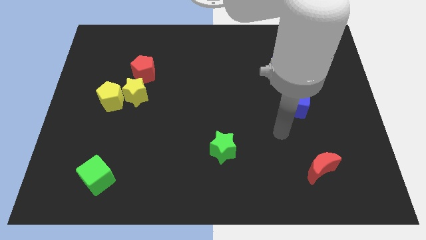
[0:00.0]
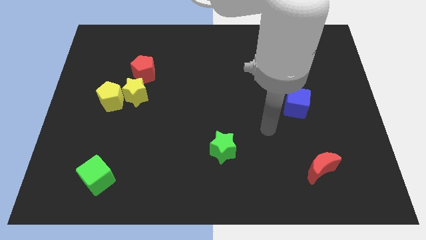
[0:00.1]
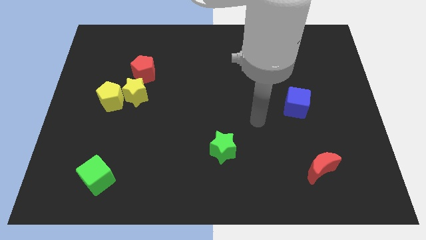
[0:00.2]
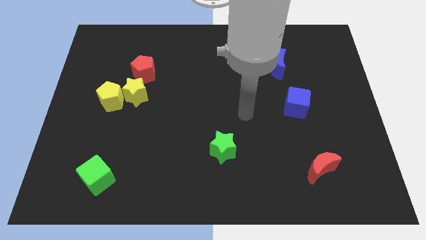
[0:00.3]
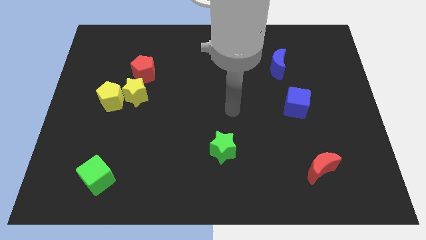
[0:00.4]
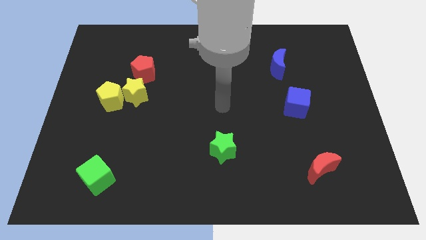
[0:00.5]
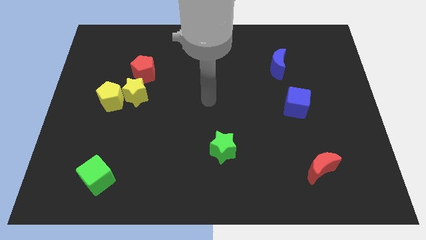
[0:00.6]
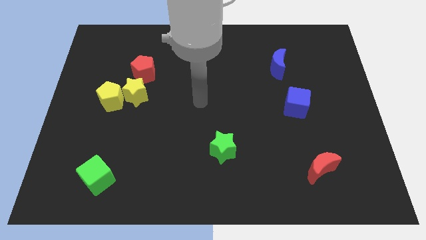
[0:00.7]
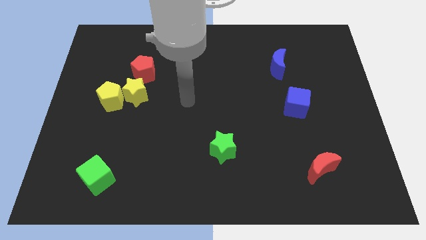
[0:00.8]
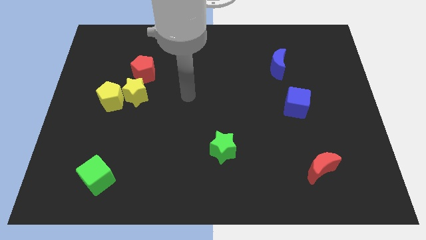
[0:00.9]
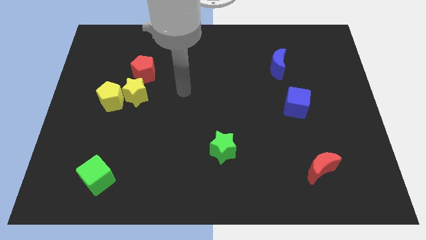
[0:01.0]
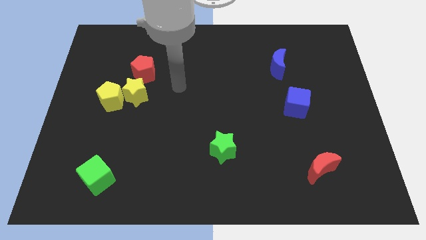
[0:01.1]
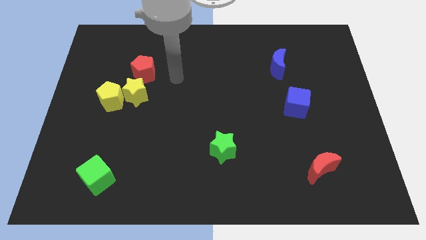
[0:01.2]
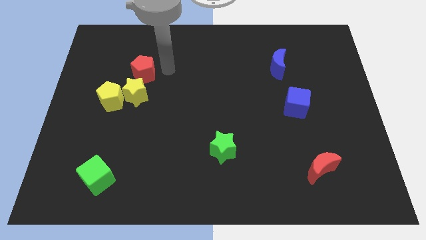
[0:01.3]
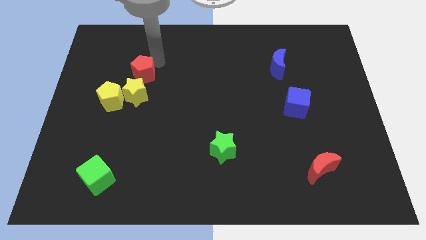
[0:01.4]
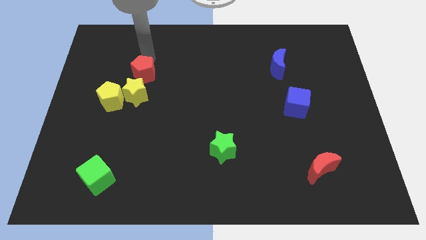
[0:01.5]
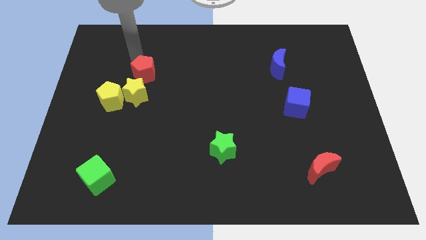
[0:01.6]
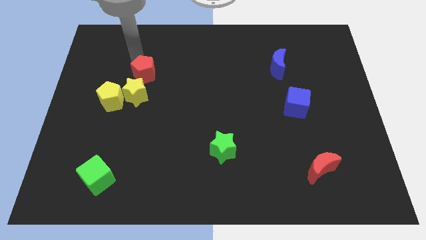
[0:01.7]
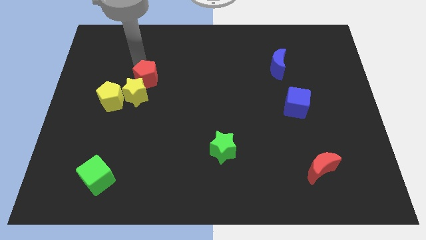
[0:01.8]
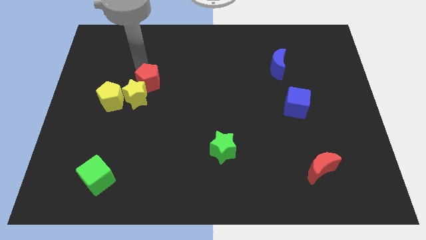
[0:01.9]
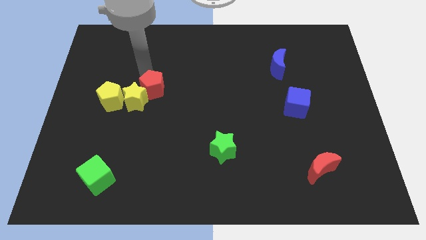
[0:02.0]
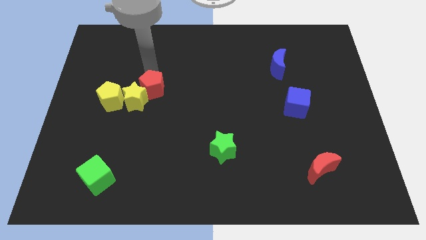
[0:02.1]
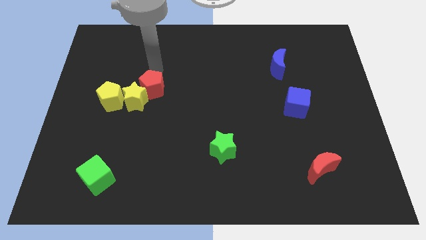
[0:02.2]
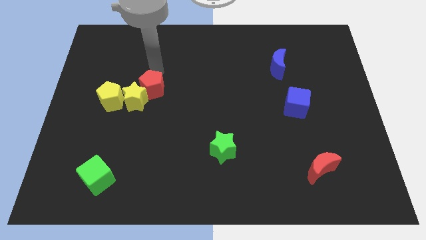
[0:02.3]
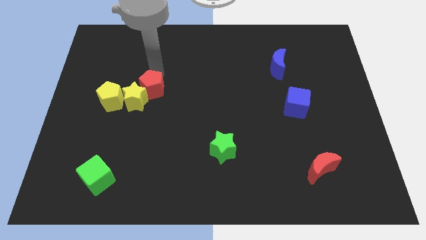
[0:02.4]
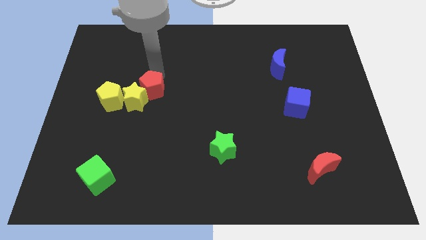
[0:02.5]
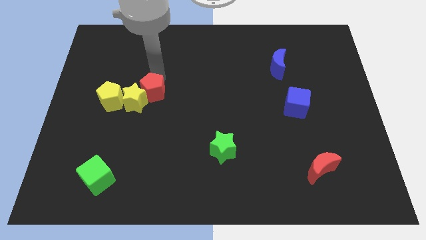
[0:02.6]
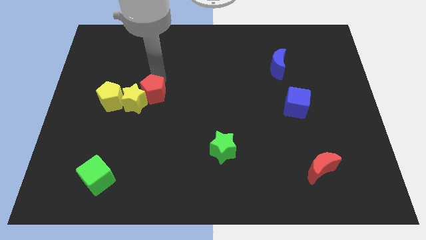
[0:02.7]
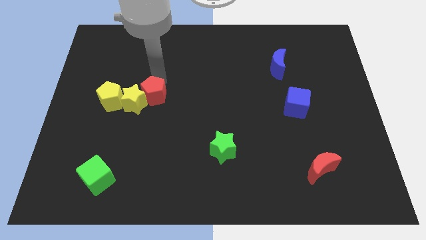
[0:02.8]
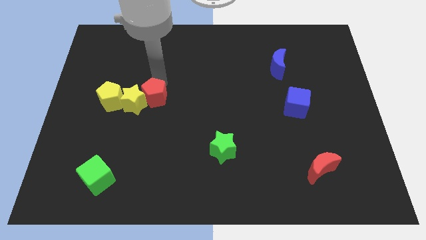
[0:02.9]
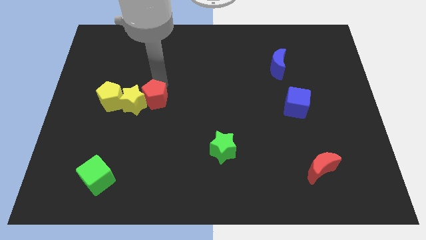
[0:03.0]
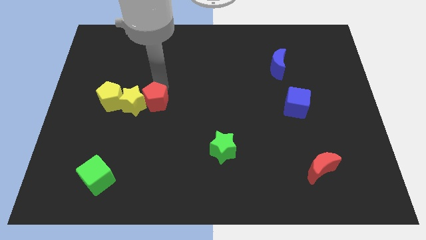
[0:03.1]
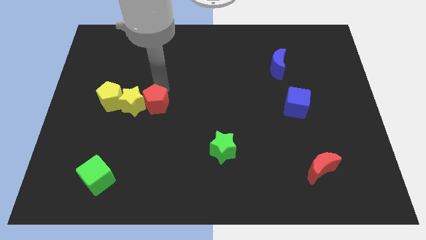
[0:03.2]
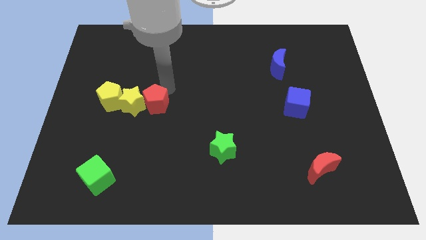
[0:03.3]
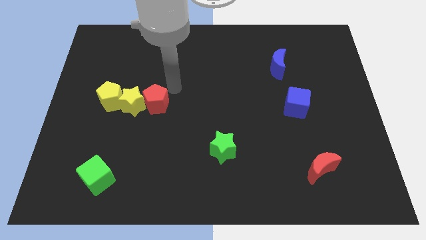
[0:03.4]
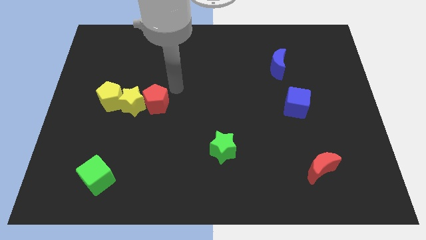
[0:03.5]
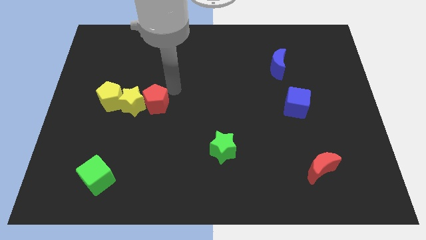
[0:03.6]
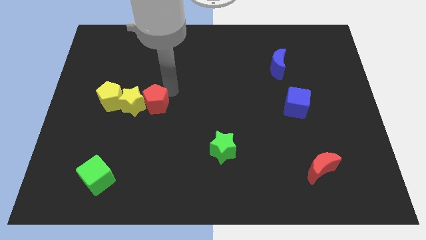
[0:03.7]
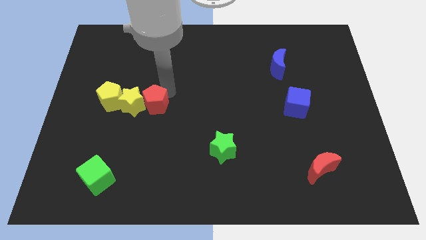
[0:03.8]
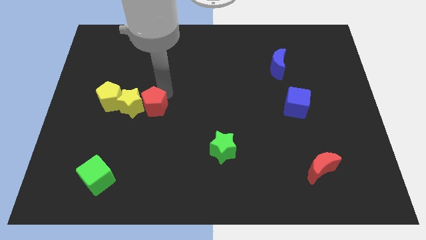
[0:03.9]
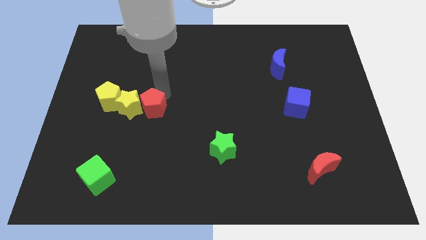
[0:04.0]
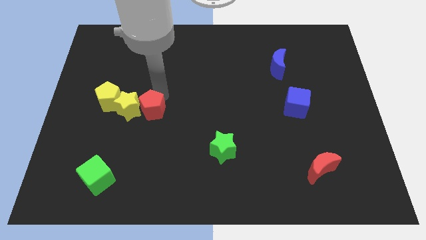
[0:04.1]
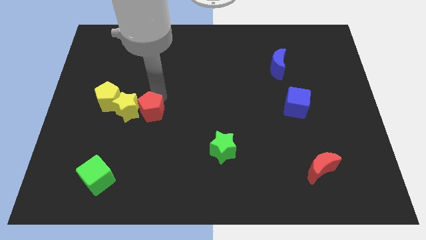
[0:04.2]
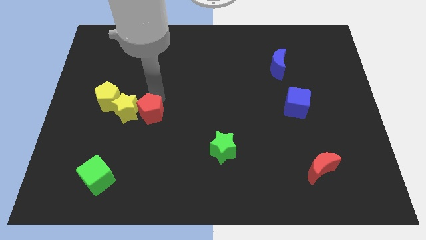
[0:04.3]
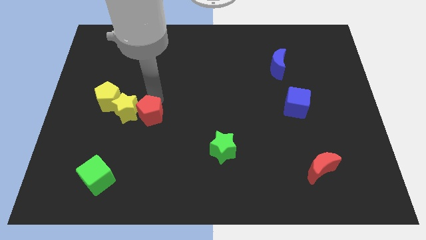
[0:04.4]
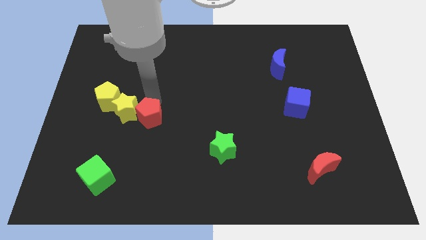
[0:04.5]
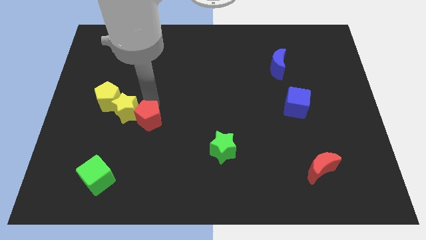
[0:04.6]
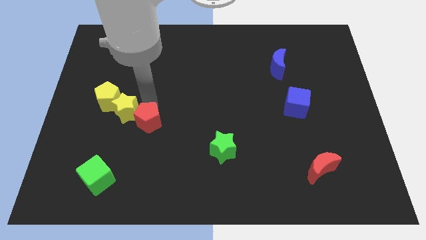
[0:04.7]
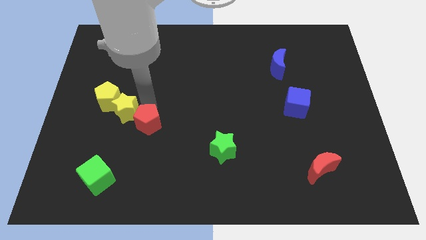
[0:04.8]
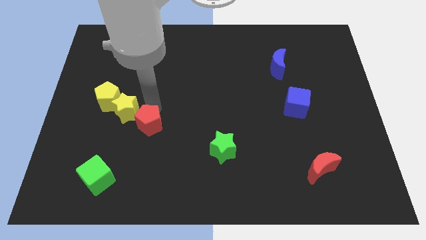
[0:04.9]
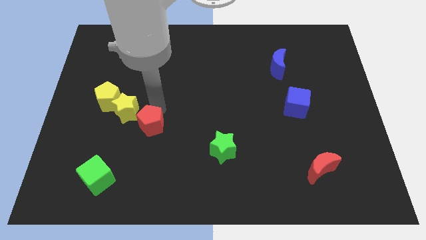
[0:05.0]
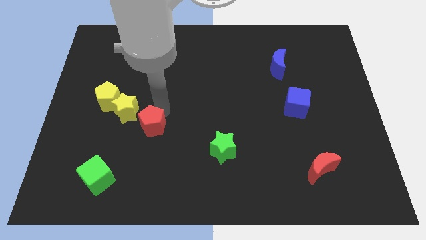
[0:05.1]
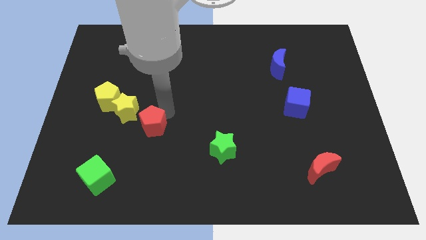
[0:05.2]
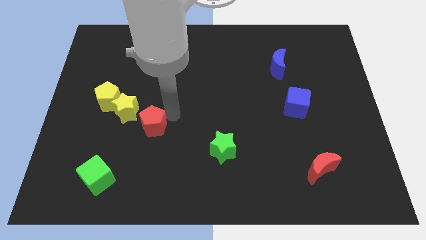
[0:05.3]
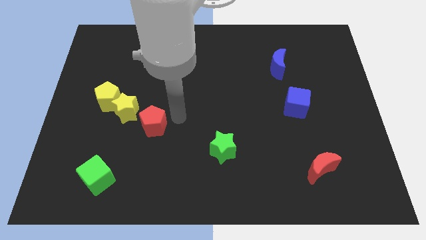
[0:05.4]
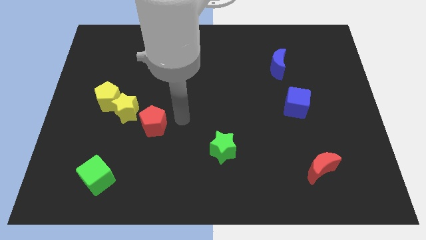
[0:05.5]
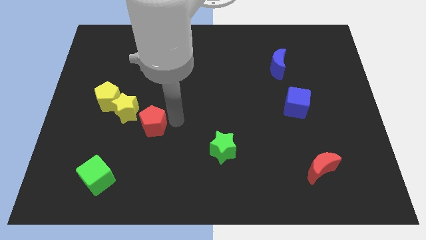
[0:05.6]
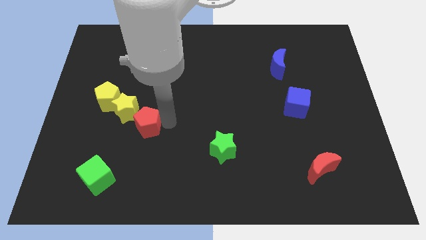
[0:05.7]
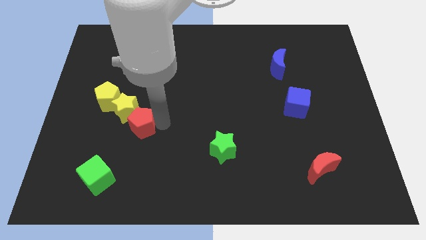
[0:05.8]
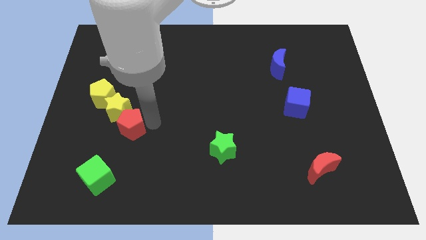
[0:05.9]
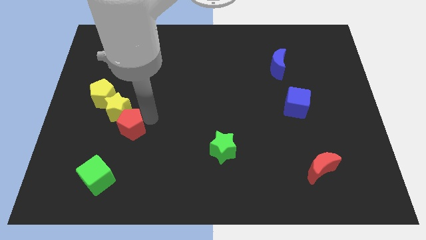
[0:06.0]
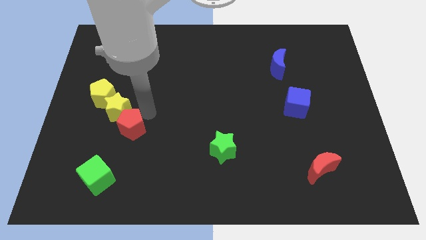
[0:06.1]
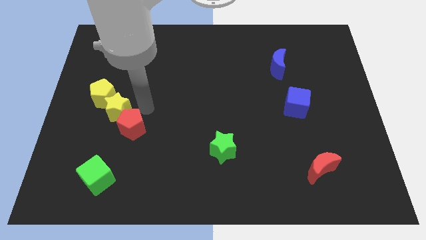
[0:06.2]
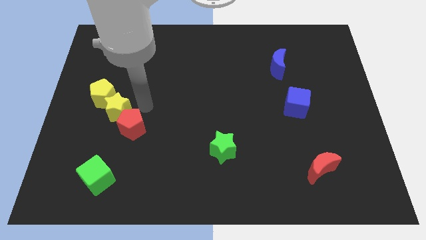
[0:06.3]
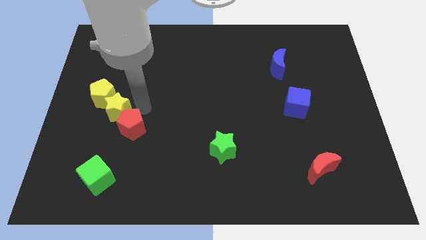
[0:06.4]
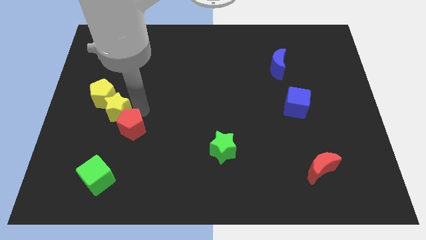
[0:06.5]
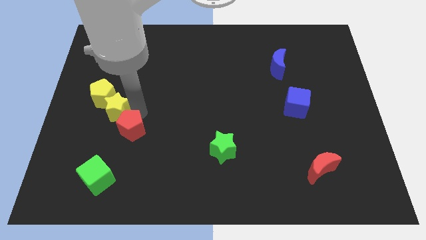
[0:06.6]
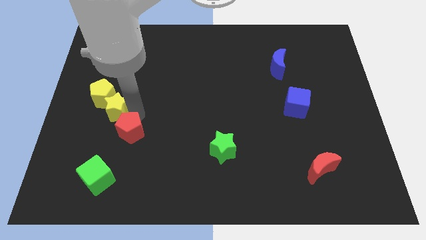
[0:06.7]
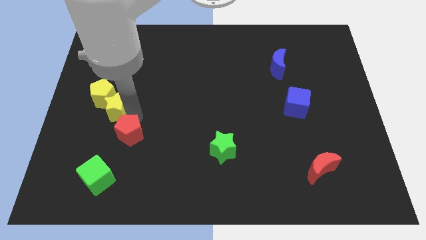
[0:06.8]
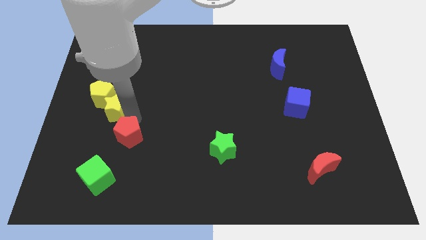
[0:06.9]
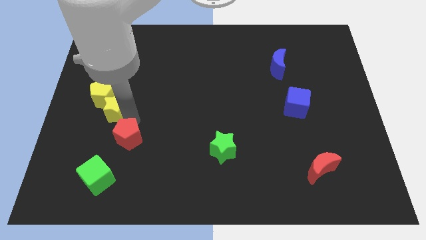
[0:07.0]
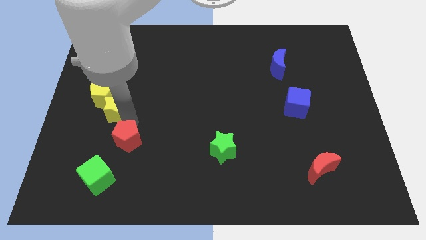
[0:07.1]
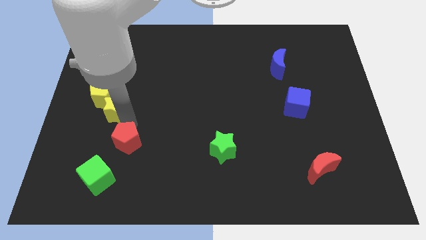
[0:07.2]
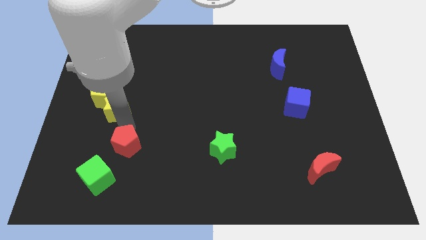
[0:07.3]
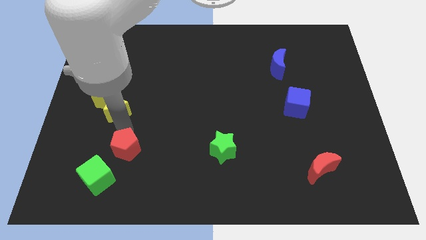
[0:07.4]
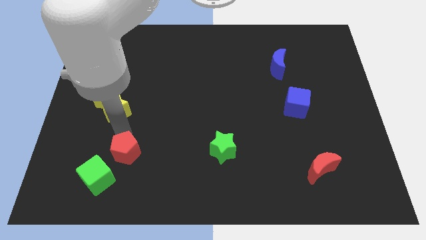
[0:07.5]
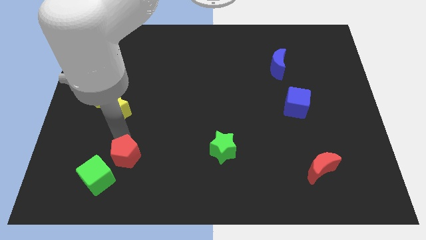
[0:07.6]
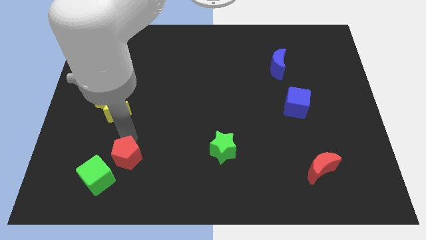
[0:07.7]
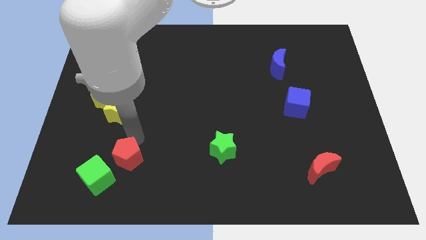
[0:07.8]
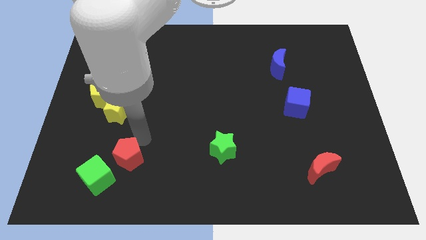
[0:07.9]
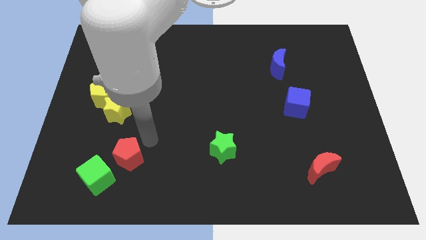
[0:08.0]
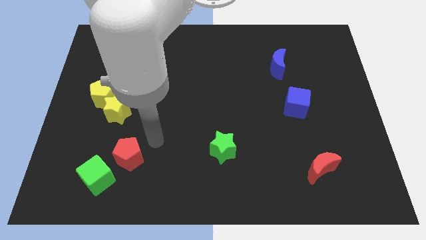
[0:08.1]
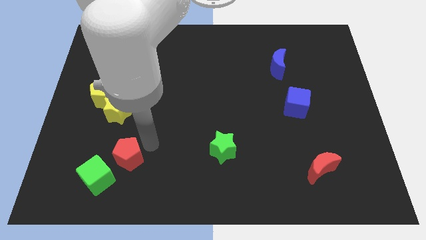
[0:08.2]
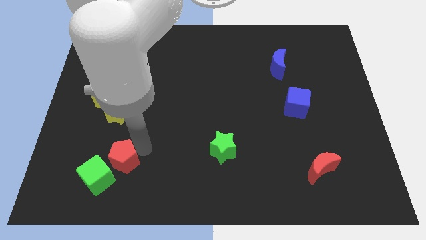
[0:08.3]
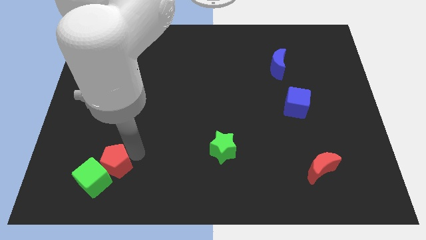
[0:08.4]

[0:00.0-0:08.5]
put the red pentagon next to the green cube
